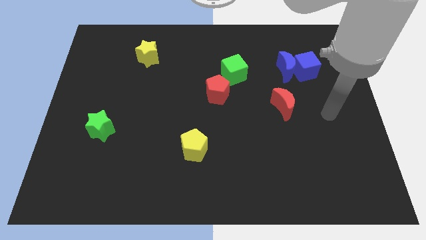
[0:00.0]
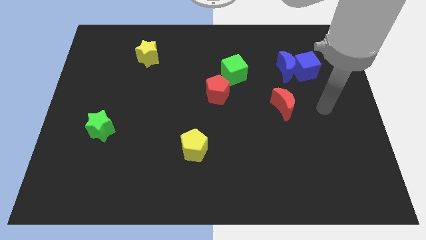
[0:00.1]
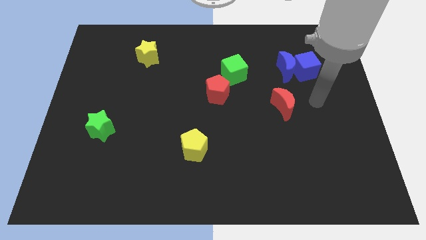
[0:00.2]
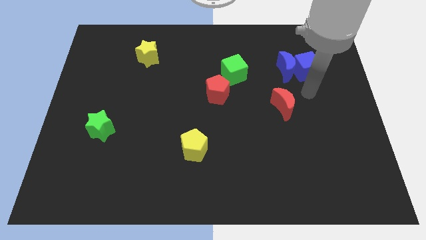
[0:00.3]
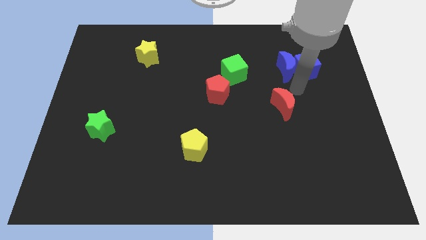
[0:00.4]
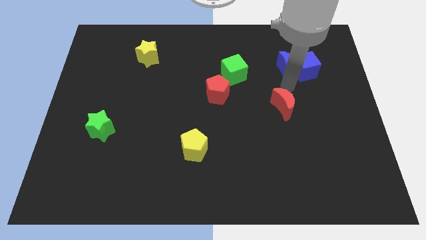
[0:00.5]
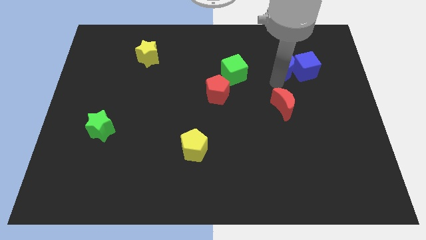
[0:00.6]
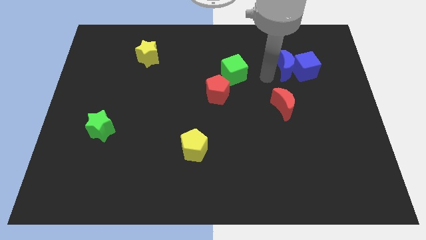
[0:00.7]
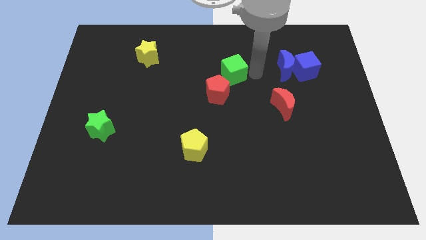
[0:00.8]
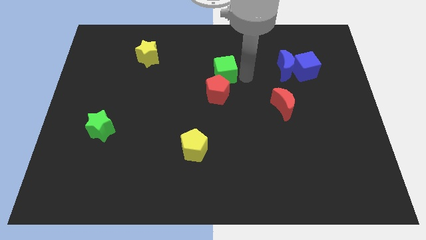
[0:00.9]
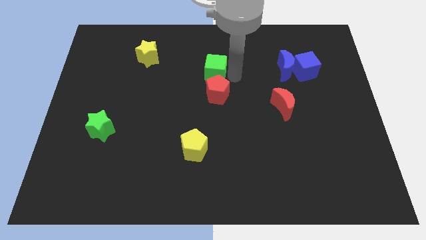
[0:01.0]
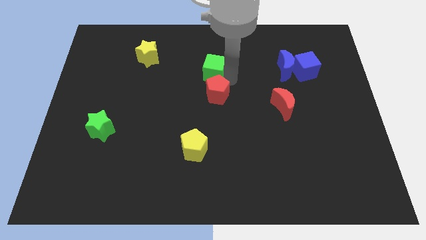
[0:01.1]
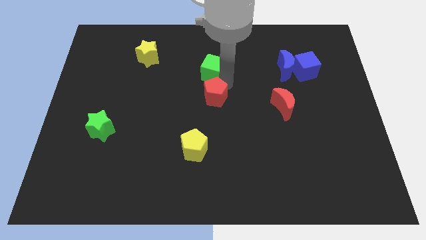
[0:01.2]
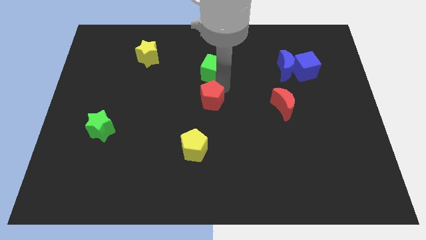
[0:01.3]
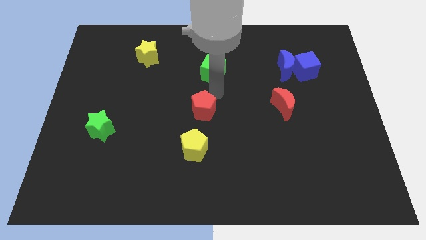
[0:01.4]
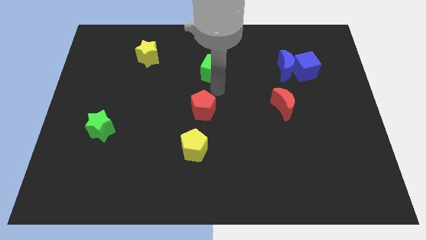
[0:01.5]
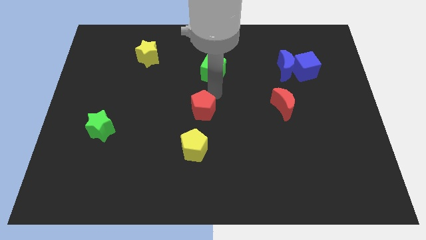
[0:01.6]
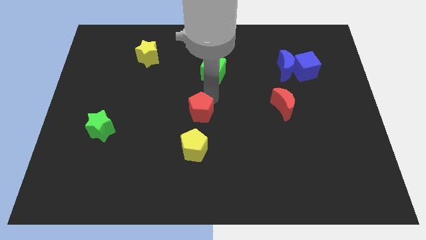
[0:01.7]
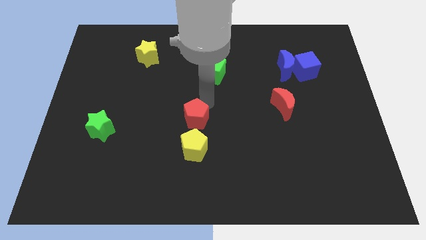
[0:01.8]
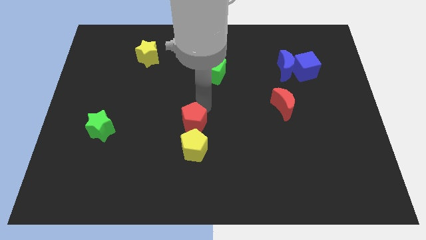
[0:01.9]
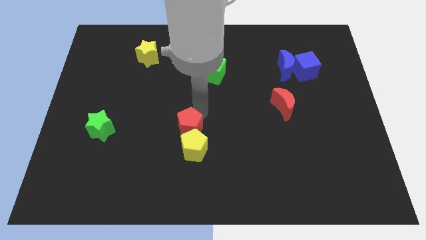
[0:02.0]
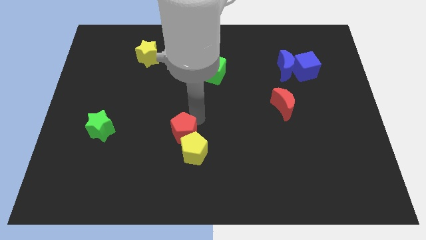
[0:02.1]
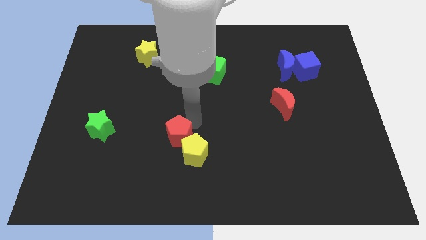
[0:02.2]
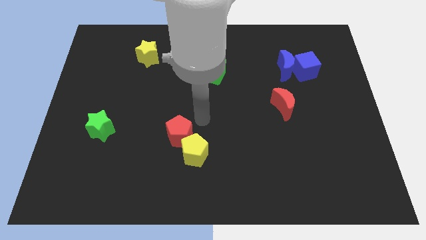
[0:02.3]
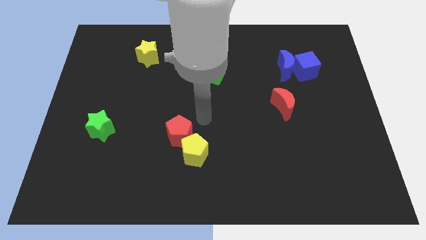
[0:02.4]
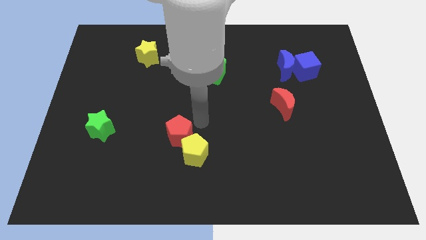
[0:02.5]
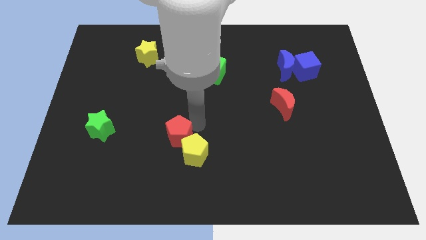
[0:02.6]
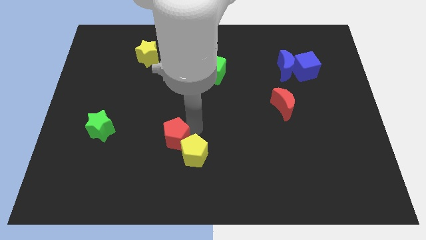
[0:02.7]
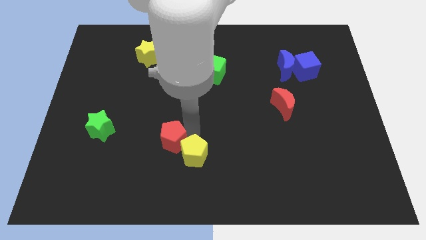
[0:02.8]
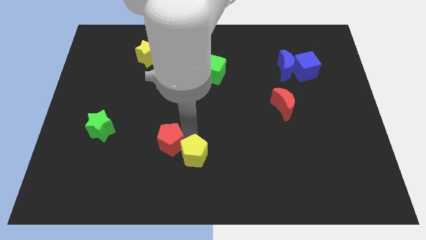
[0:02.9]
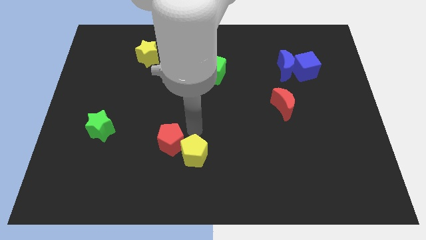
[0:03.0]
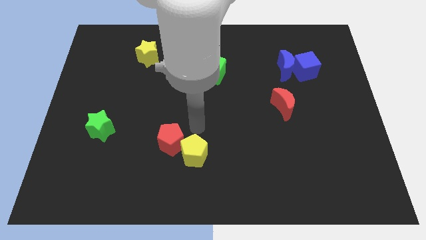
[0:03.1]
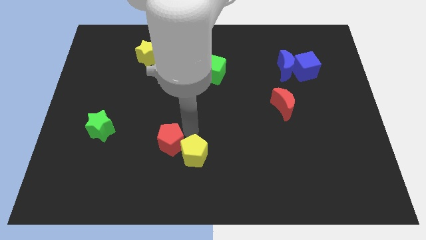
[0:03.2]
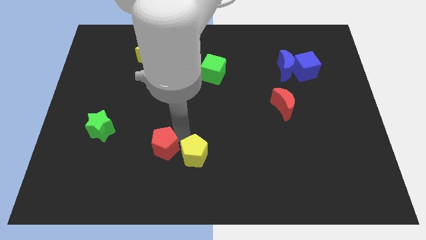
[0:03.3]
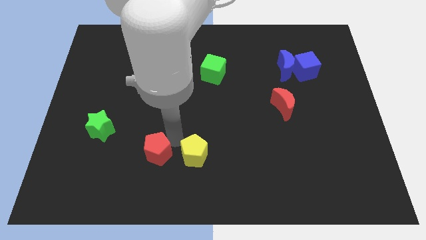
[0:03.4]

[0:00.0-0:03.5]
slide the red pentagon down and left

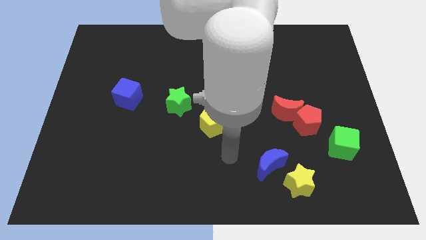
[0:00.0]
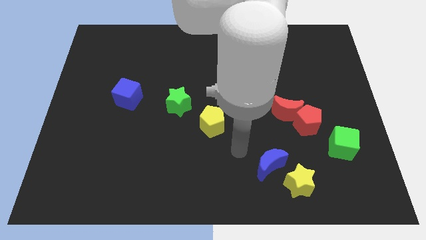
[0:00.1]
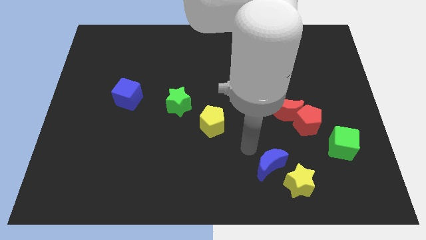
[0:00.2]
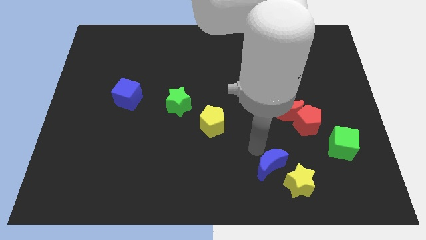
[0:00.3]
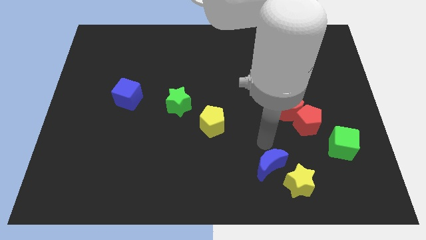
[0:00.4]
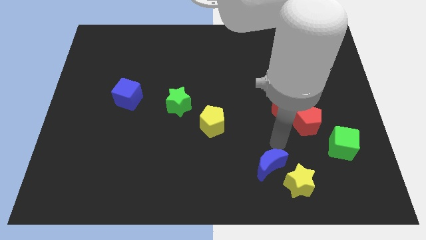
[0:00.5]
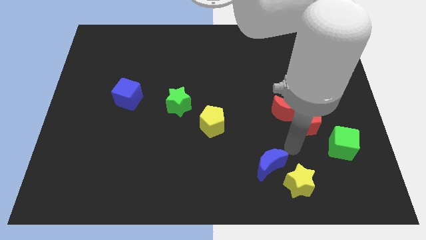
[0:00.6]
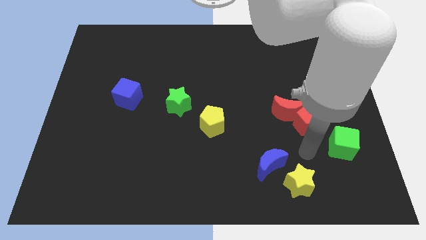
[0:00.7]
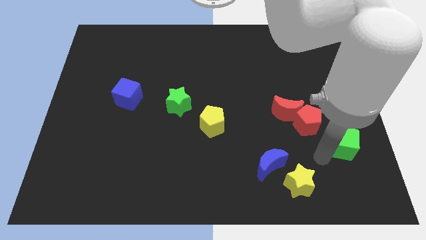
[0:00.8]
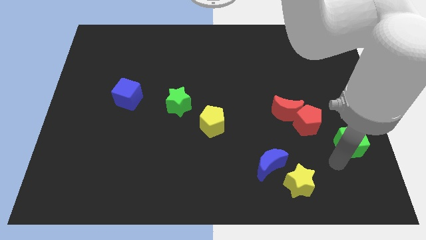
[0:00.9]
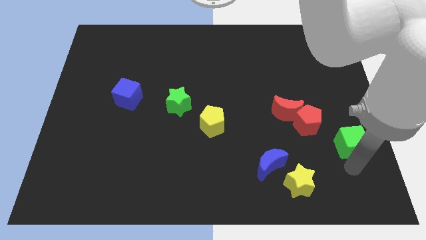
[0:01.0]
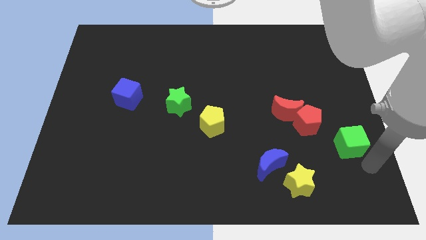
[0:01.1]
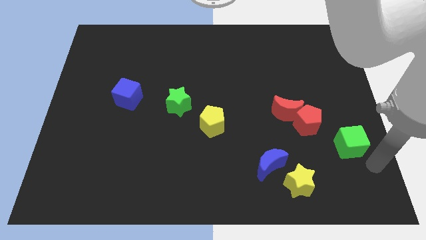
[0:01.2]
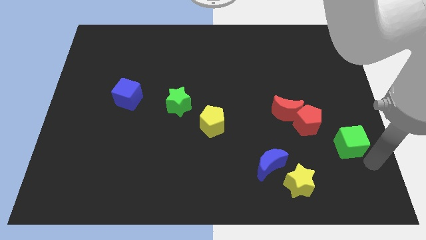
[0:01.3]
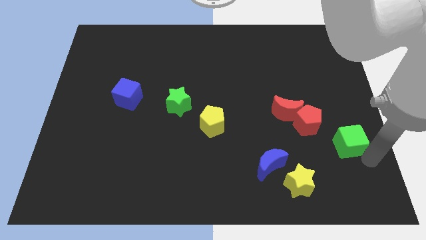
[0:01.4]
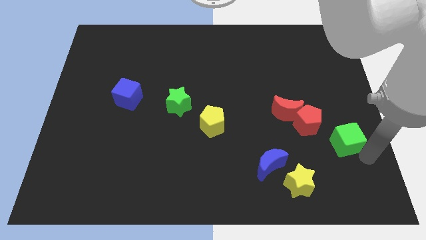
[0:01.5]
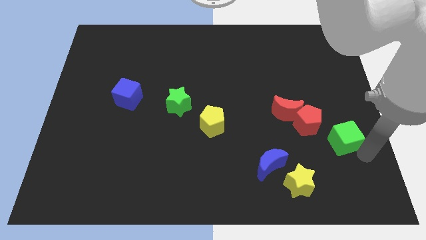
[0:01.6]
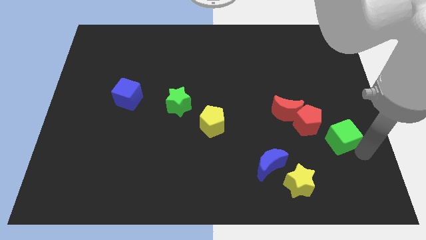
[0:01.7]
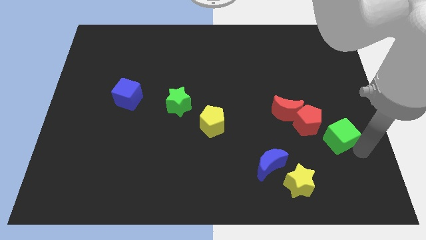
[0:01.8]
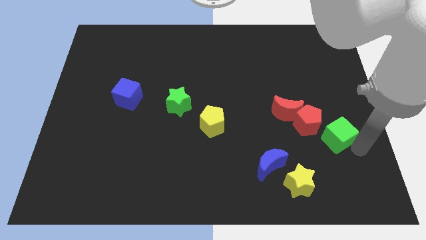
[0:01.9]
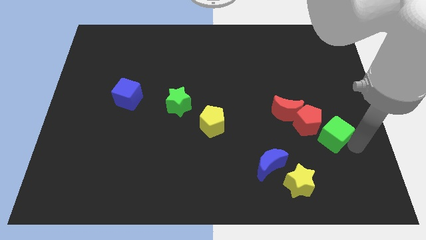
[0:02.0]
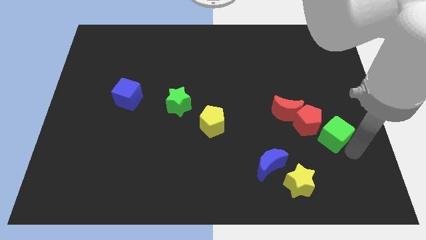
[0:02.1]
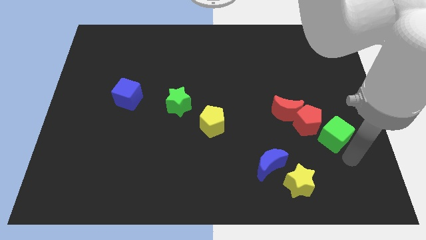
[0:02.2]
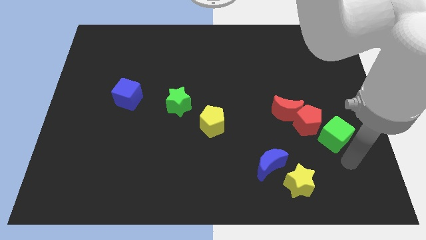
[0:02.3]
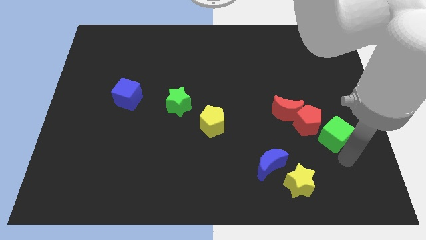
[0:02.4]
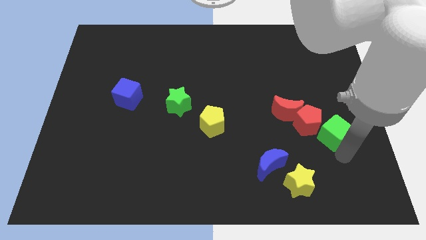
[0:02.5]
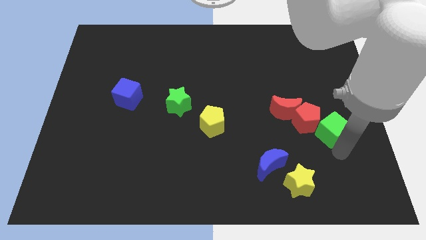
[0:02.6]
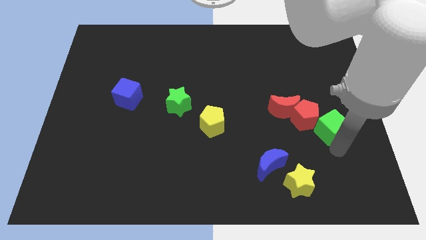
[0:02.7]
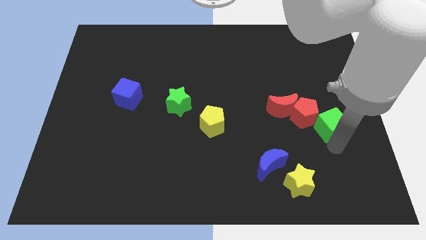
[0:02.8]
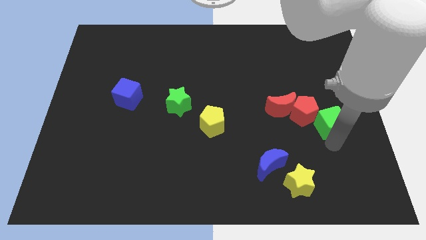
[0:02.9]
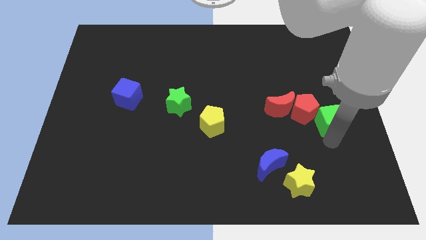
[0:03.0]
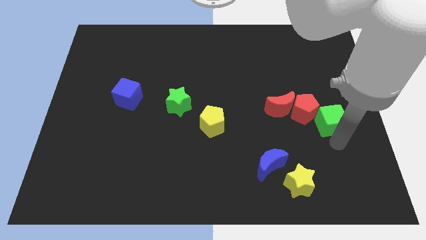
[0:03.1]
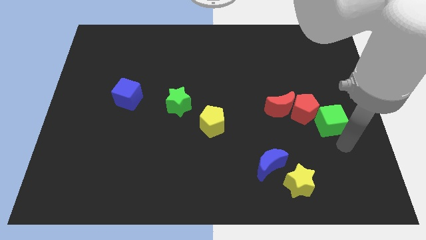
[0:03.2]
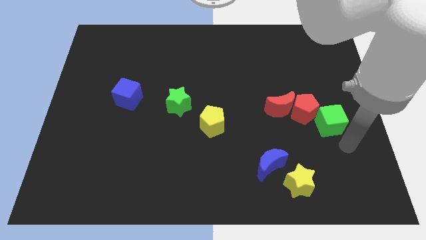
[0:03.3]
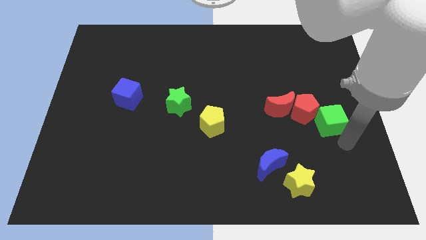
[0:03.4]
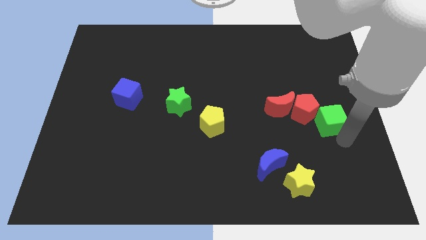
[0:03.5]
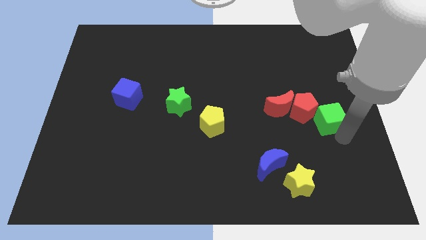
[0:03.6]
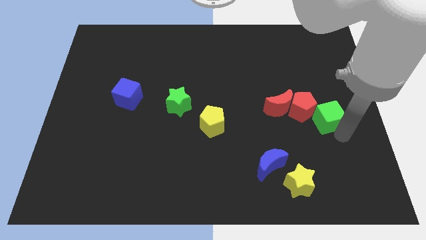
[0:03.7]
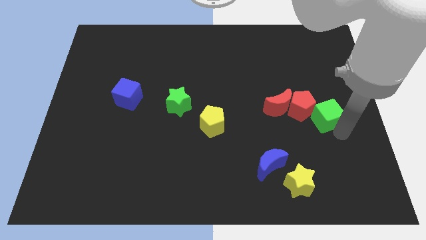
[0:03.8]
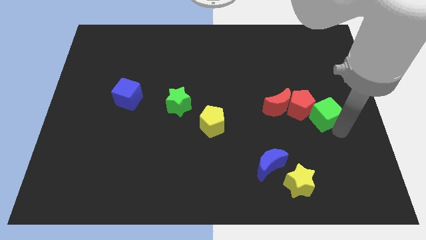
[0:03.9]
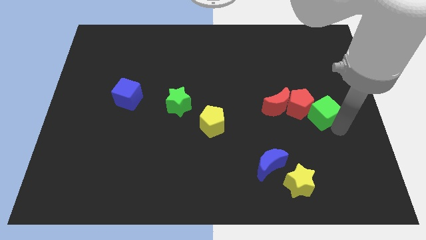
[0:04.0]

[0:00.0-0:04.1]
slightly push the green cube up and then left

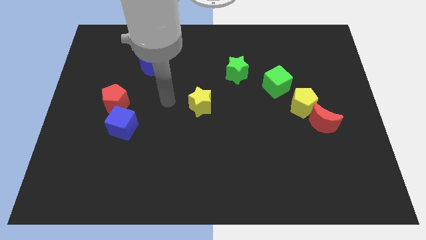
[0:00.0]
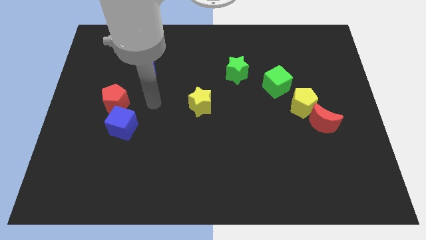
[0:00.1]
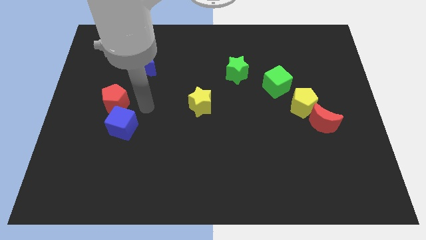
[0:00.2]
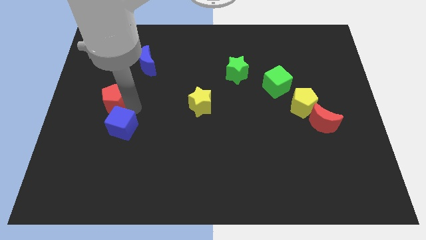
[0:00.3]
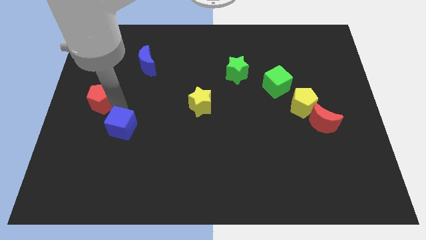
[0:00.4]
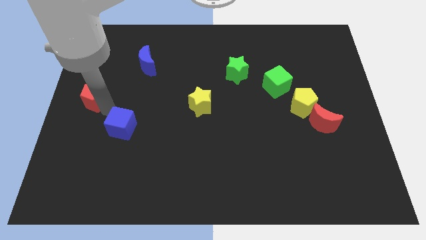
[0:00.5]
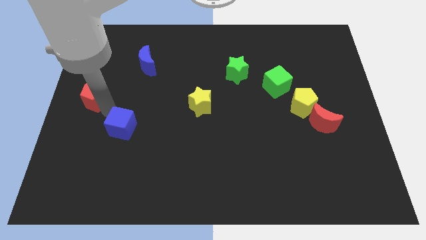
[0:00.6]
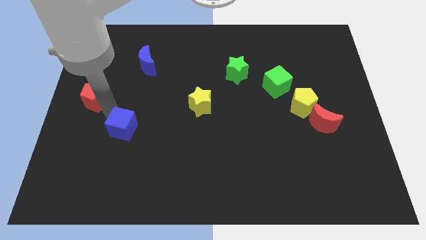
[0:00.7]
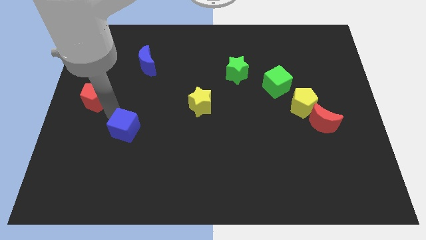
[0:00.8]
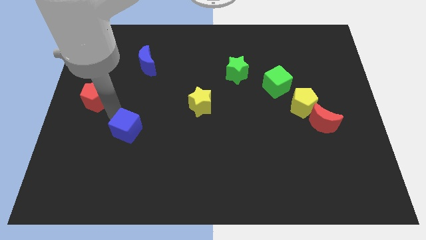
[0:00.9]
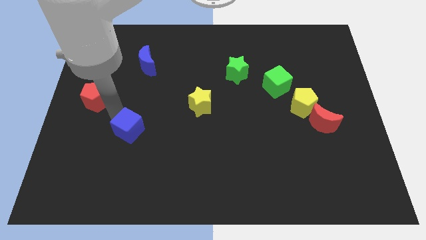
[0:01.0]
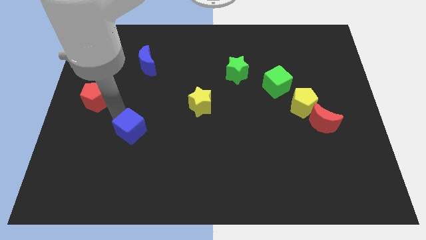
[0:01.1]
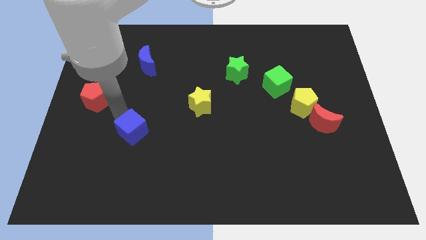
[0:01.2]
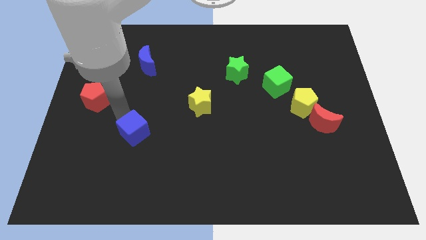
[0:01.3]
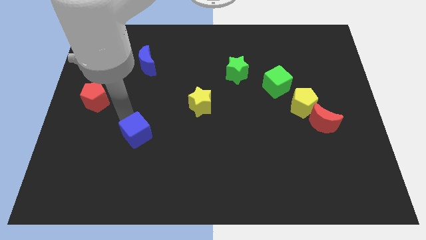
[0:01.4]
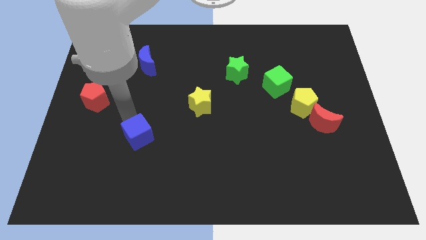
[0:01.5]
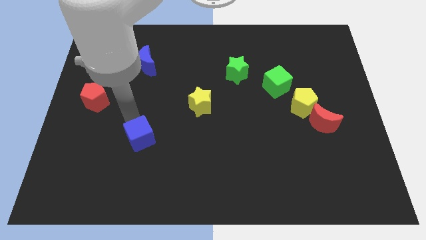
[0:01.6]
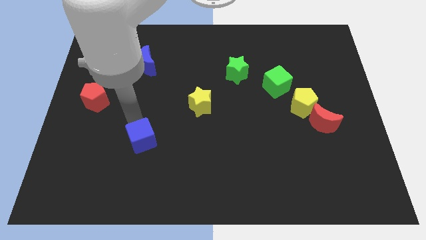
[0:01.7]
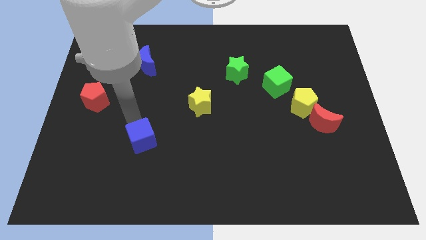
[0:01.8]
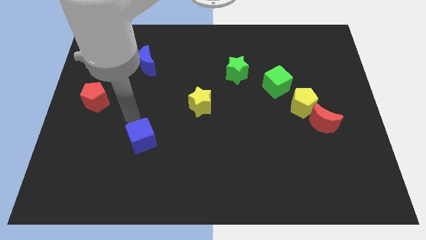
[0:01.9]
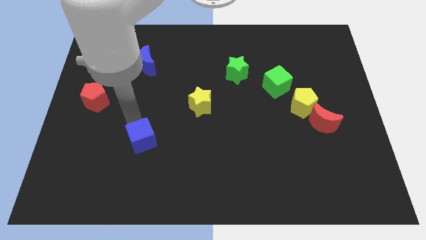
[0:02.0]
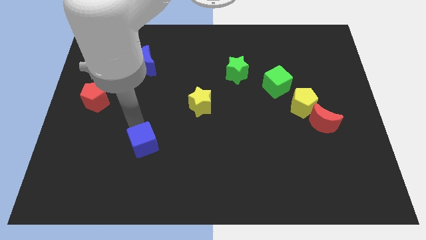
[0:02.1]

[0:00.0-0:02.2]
push the blue cube downwards and then to the right a bit
